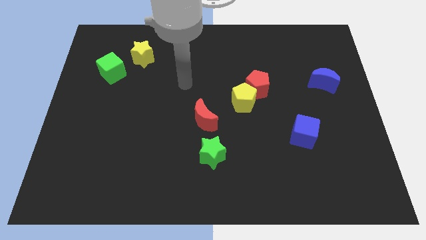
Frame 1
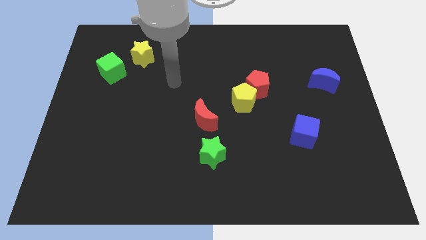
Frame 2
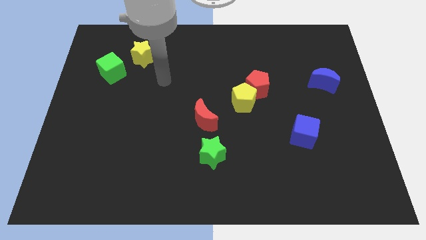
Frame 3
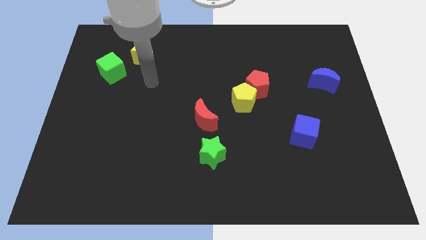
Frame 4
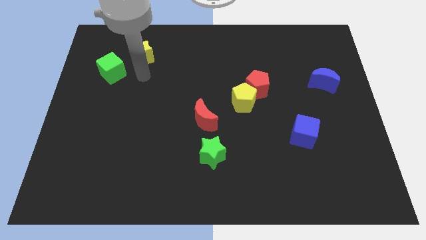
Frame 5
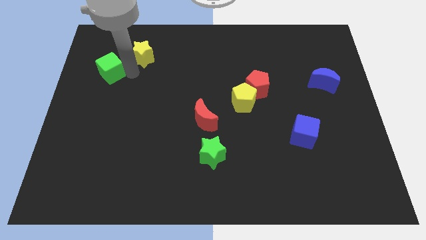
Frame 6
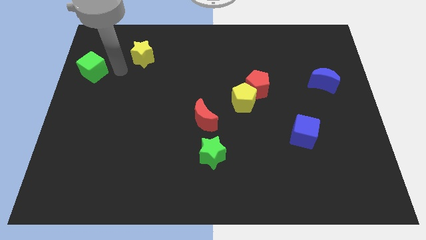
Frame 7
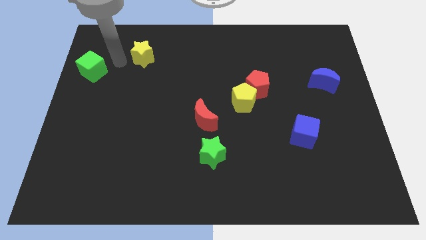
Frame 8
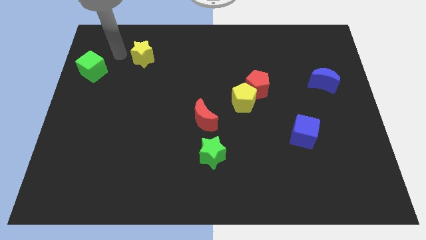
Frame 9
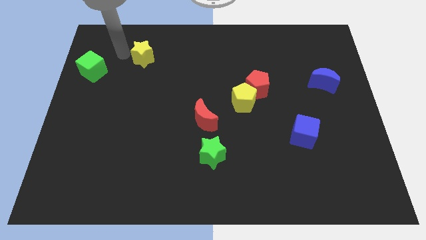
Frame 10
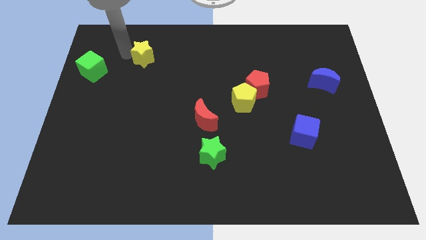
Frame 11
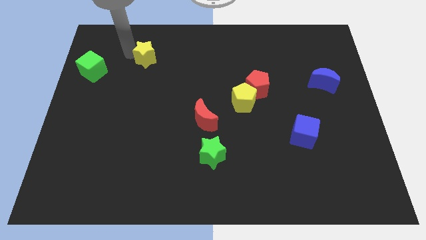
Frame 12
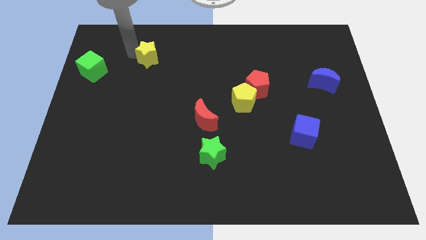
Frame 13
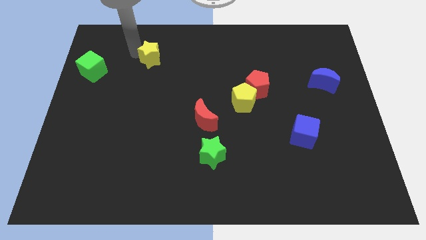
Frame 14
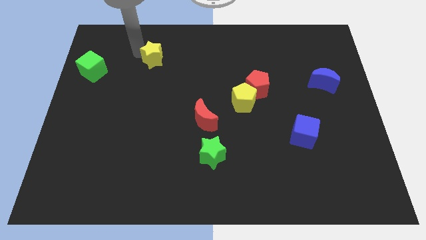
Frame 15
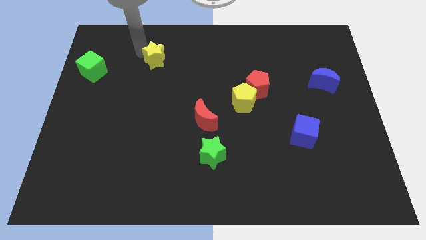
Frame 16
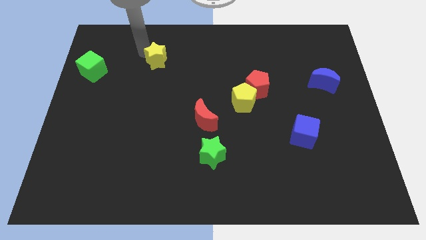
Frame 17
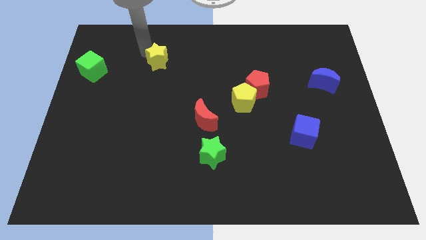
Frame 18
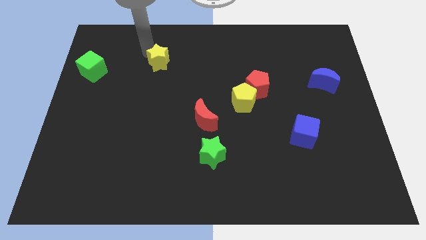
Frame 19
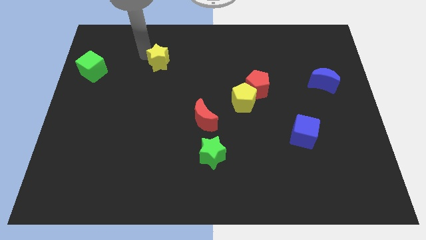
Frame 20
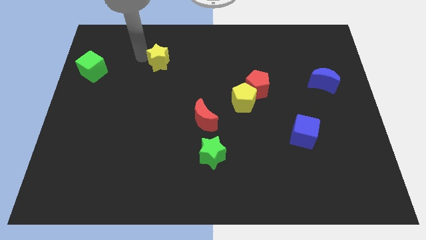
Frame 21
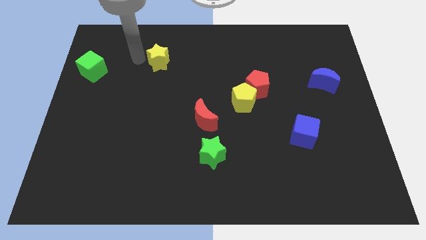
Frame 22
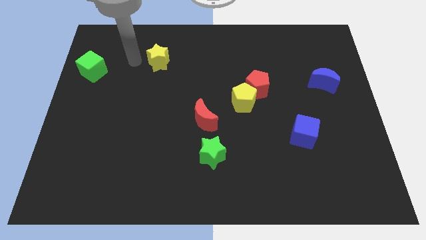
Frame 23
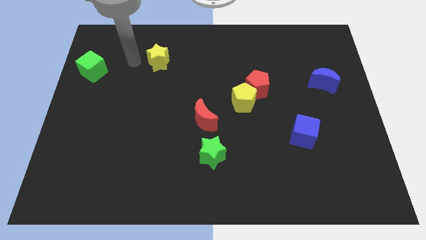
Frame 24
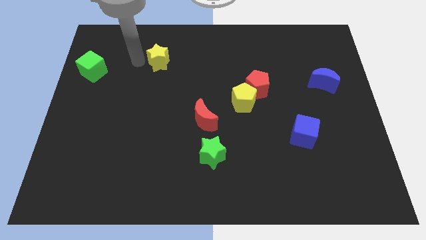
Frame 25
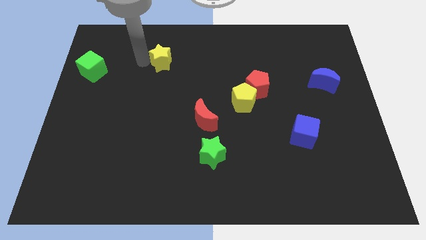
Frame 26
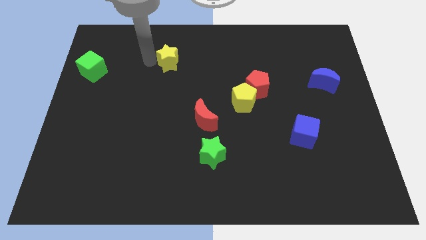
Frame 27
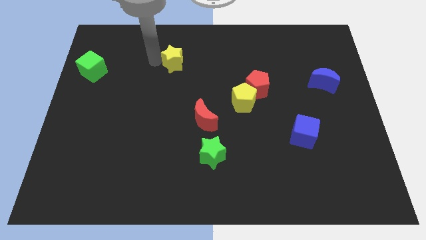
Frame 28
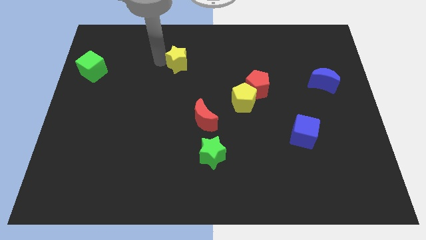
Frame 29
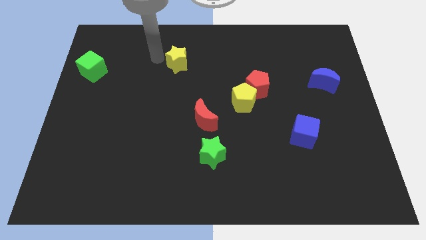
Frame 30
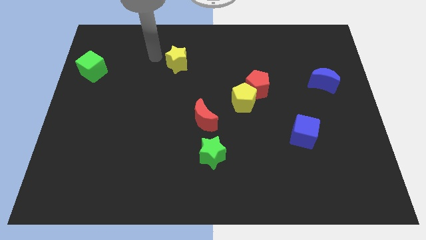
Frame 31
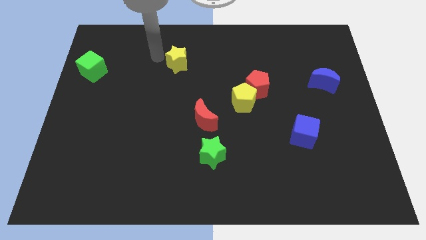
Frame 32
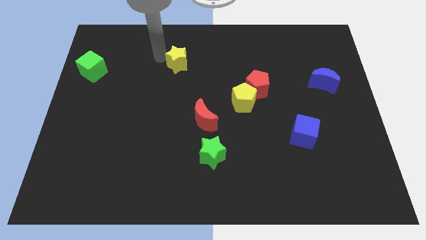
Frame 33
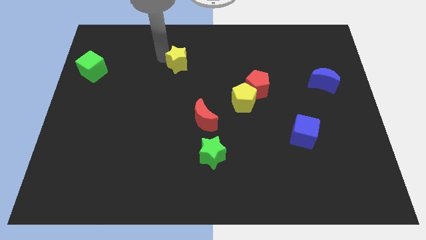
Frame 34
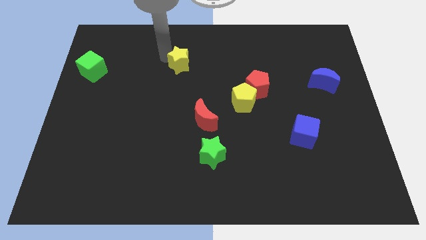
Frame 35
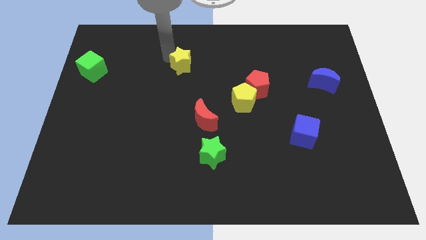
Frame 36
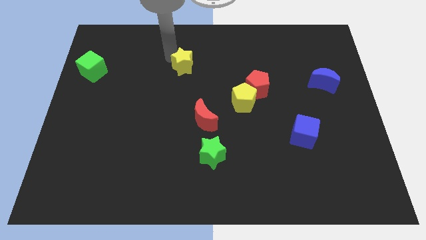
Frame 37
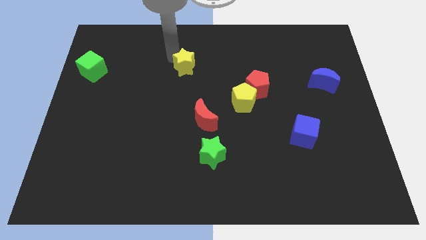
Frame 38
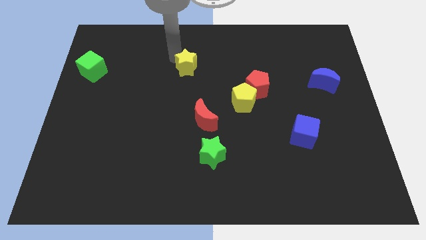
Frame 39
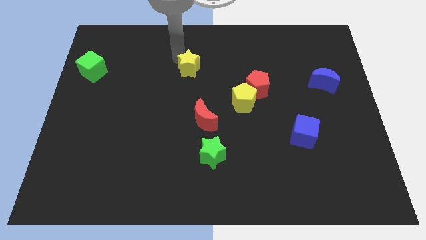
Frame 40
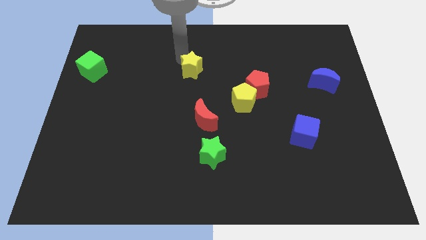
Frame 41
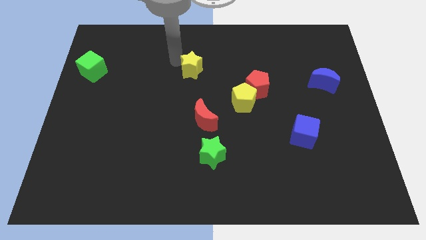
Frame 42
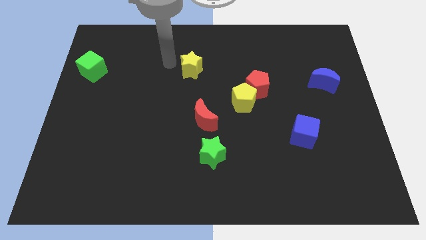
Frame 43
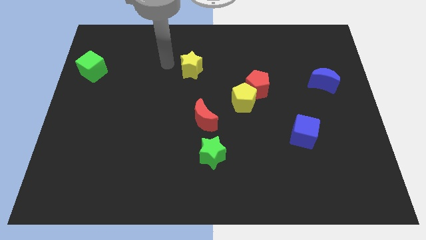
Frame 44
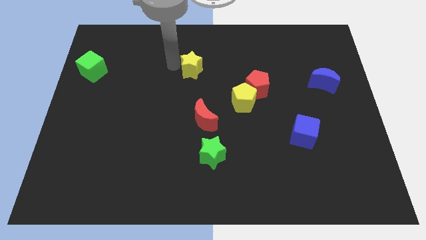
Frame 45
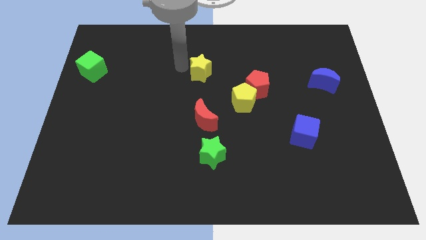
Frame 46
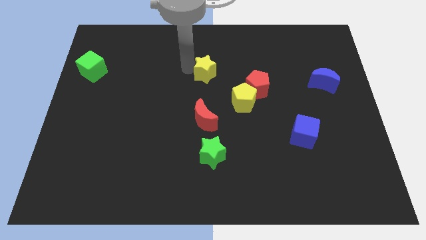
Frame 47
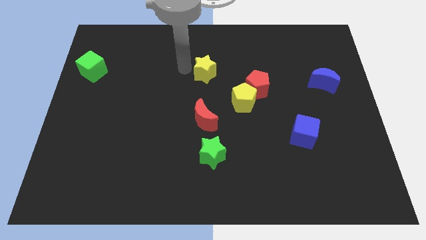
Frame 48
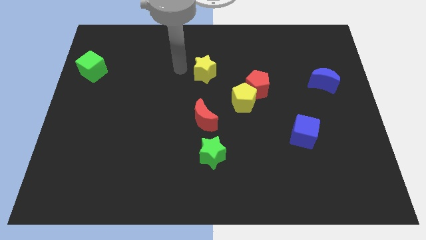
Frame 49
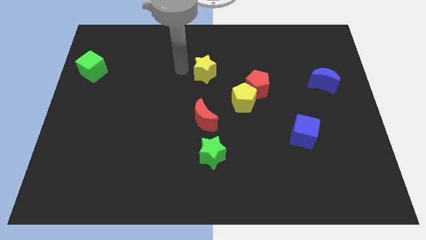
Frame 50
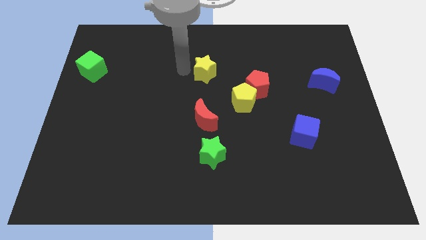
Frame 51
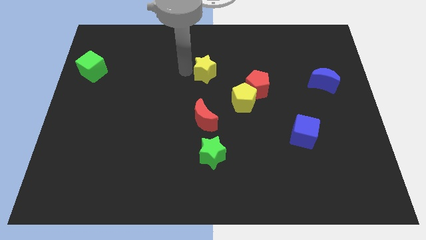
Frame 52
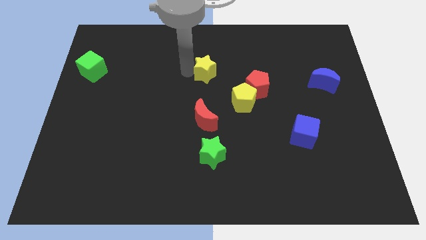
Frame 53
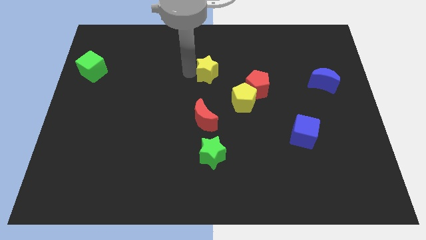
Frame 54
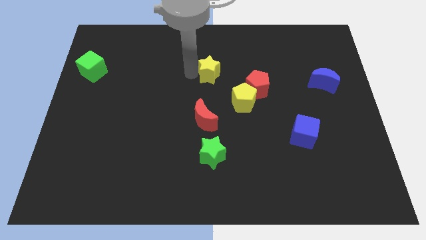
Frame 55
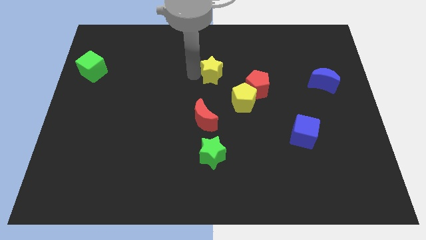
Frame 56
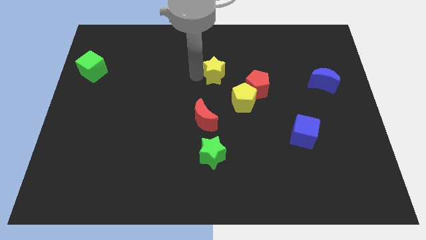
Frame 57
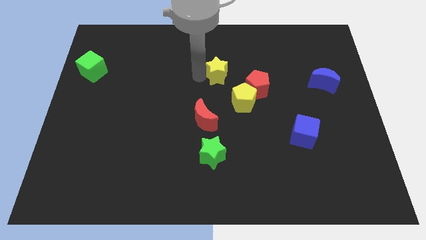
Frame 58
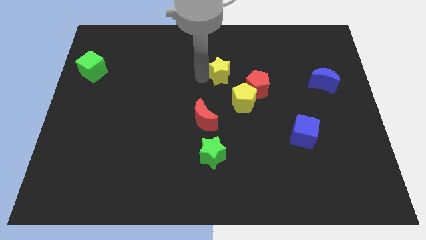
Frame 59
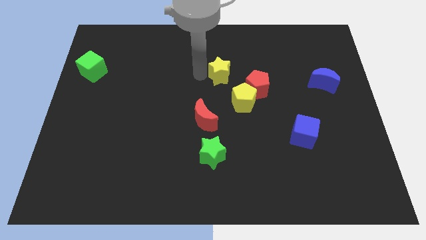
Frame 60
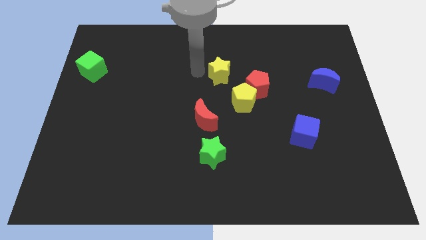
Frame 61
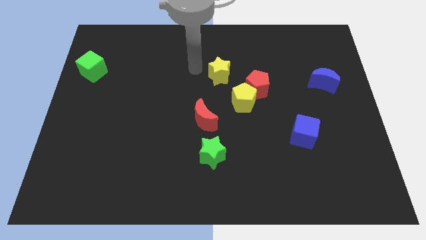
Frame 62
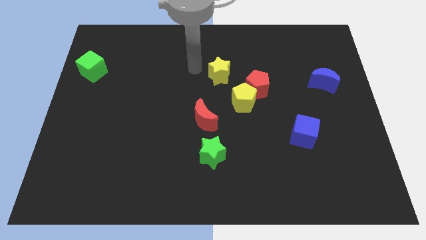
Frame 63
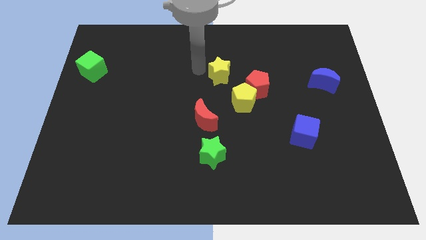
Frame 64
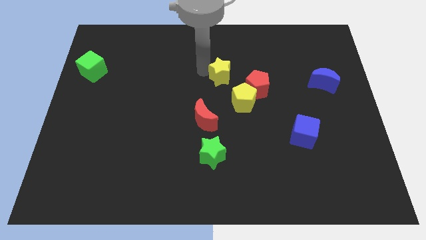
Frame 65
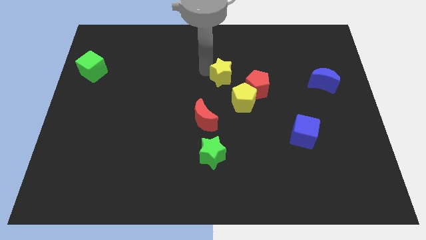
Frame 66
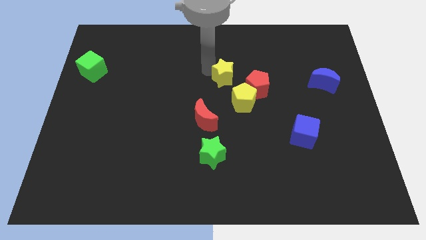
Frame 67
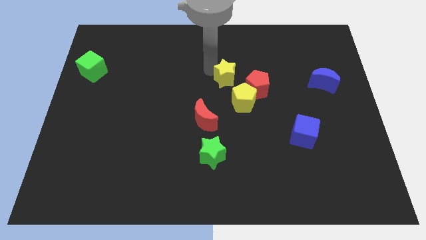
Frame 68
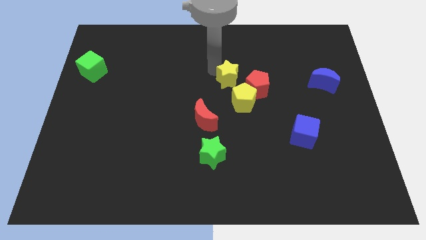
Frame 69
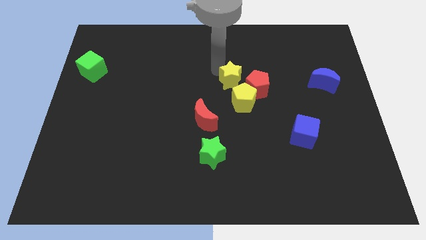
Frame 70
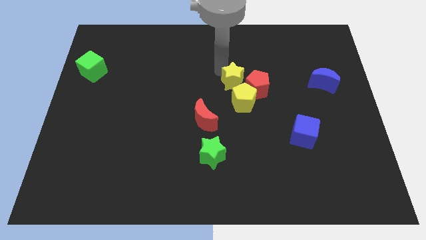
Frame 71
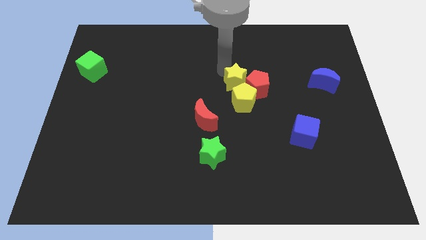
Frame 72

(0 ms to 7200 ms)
push the yellow star to the red pentagon

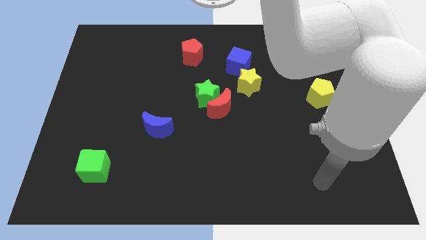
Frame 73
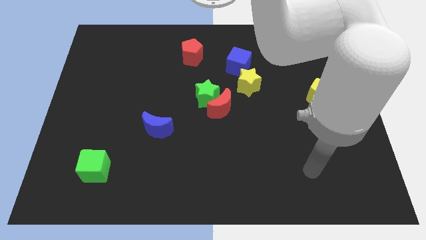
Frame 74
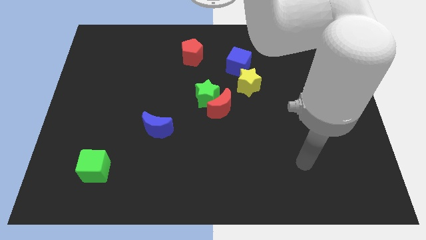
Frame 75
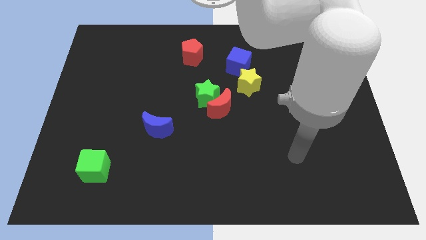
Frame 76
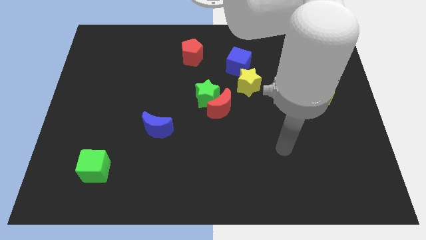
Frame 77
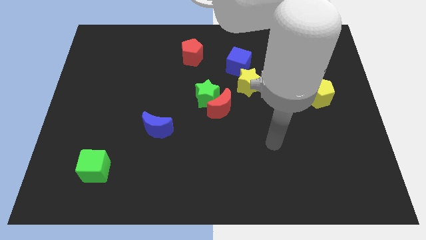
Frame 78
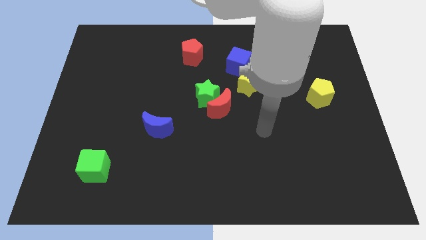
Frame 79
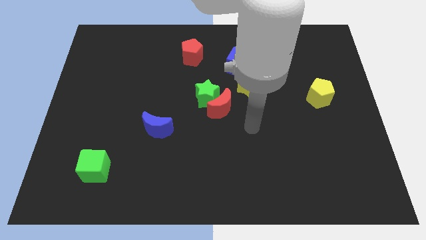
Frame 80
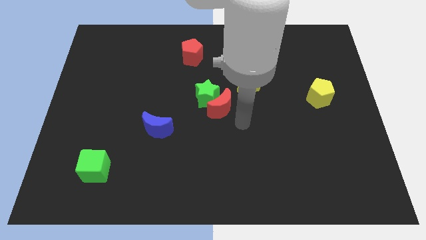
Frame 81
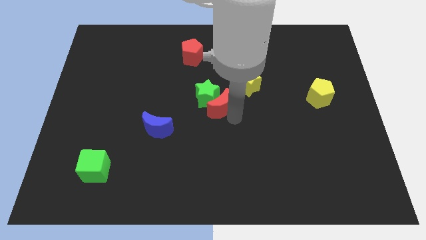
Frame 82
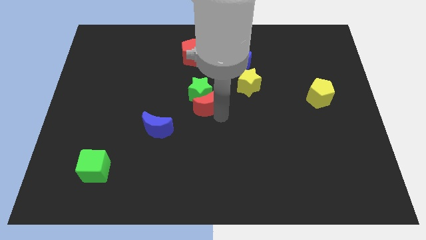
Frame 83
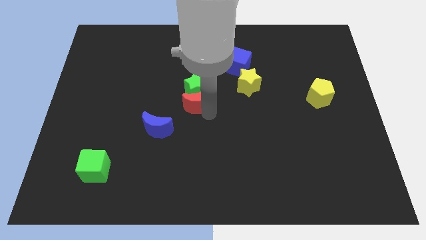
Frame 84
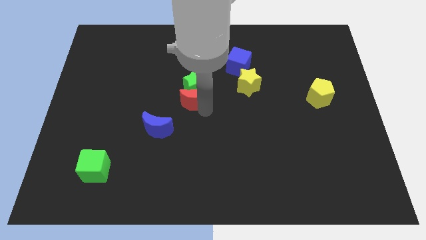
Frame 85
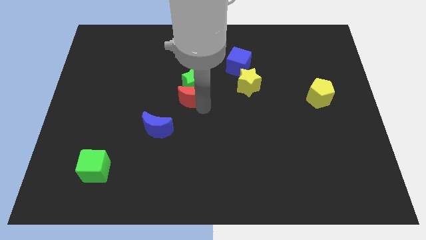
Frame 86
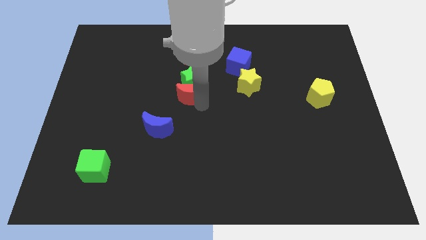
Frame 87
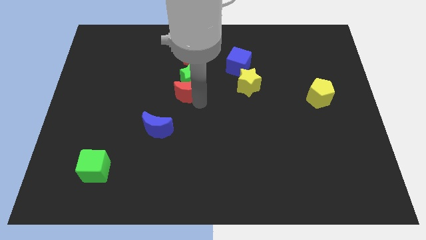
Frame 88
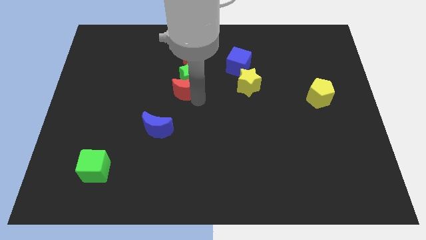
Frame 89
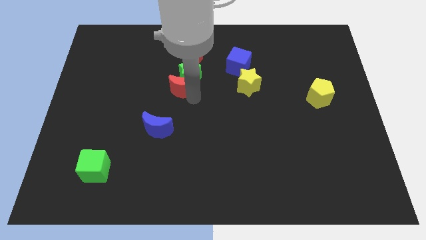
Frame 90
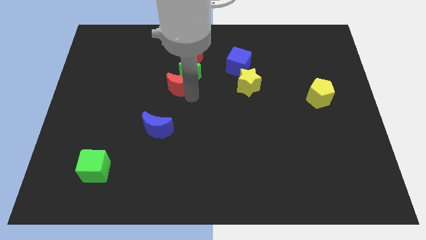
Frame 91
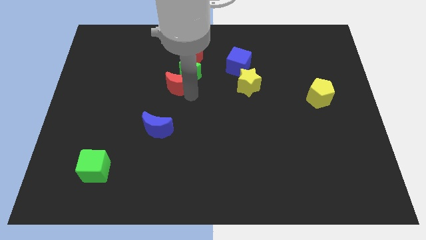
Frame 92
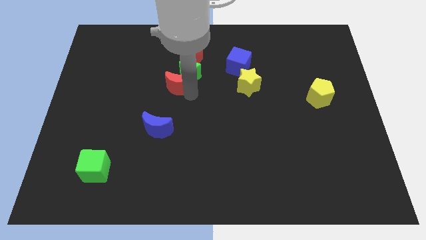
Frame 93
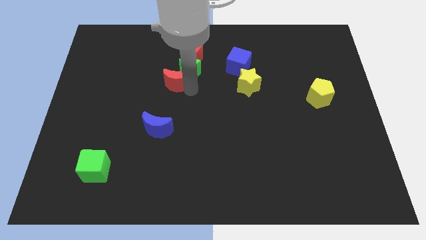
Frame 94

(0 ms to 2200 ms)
slide the green star close to the red pentagon
